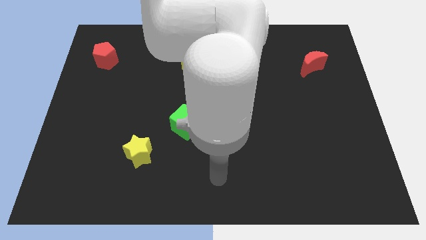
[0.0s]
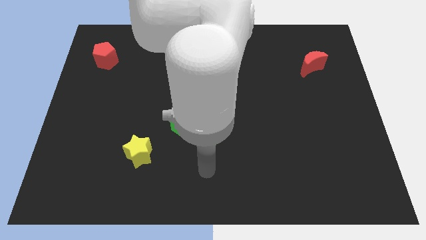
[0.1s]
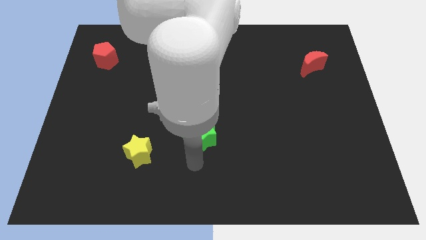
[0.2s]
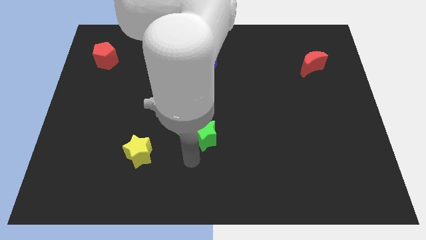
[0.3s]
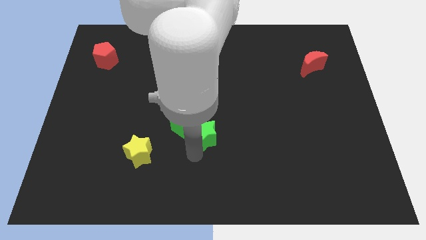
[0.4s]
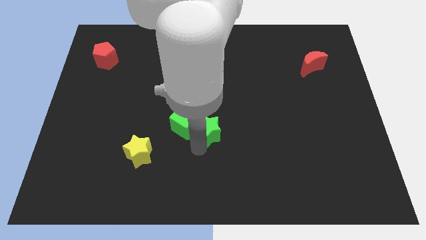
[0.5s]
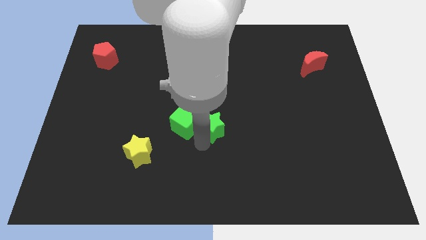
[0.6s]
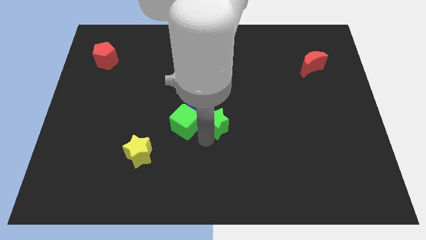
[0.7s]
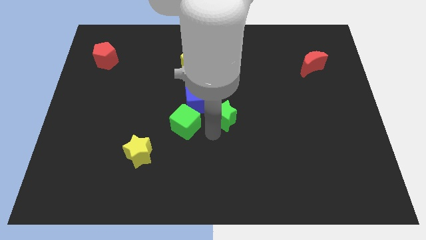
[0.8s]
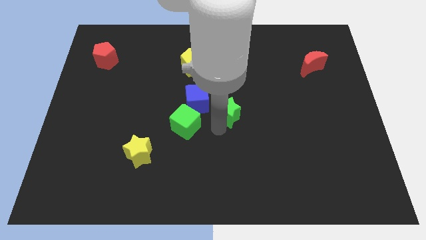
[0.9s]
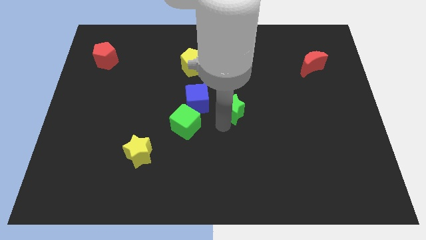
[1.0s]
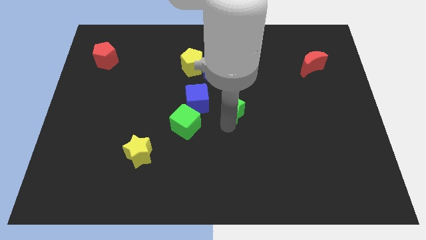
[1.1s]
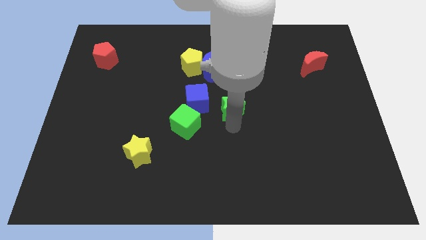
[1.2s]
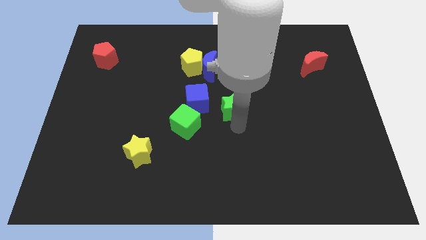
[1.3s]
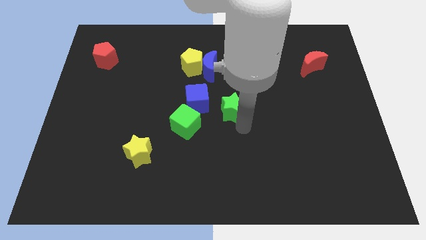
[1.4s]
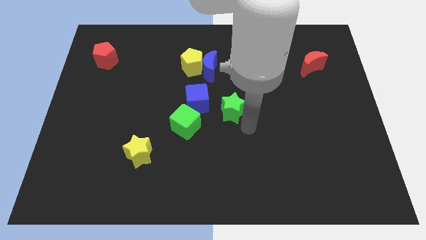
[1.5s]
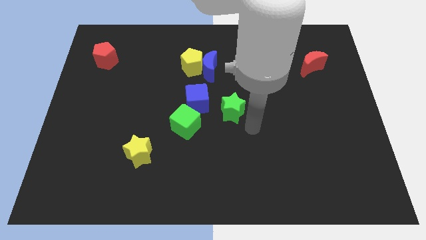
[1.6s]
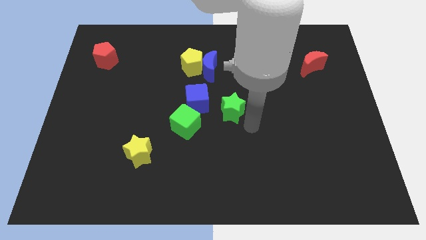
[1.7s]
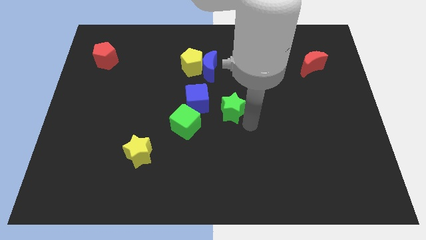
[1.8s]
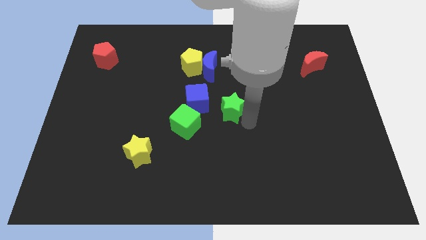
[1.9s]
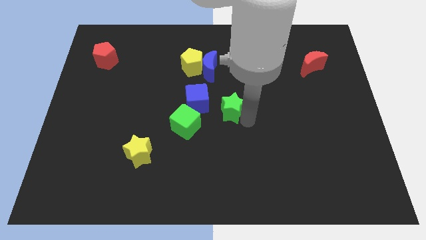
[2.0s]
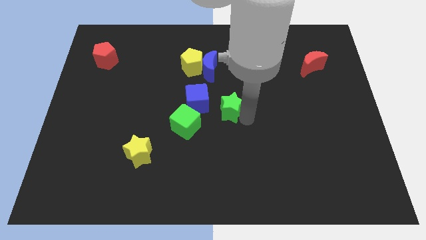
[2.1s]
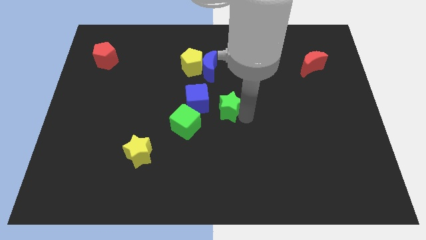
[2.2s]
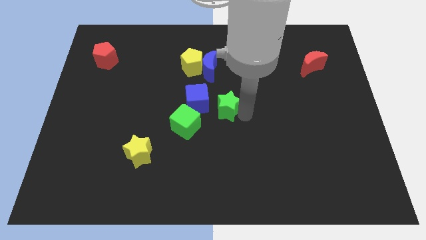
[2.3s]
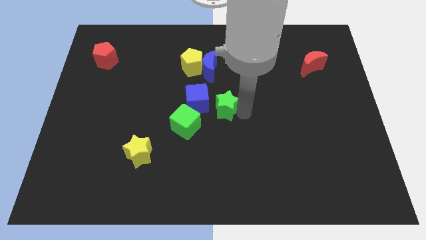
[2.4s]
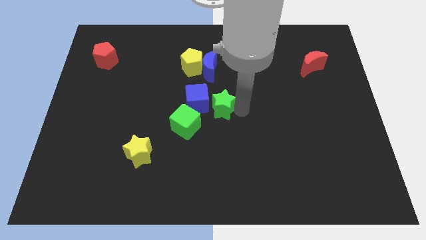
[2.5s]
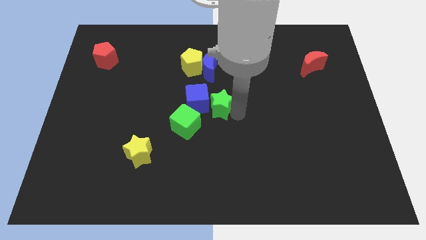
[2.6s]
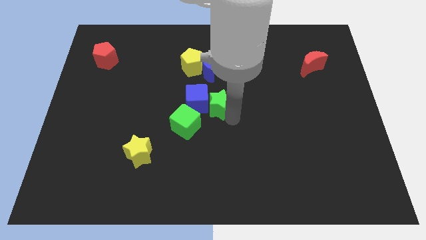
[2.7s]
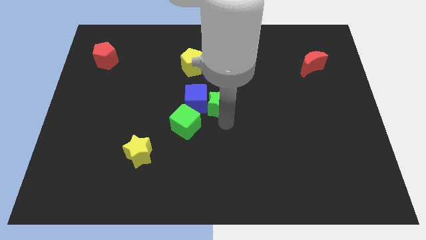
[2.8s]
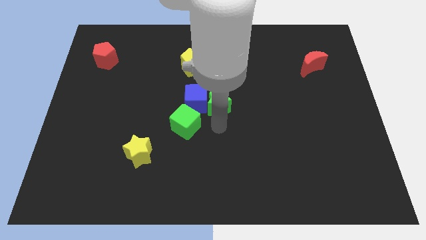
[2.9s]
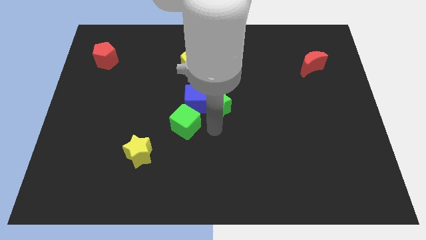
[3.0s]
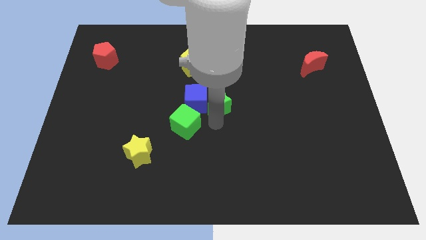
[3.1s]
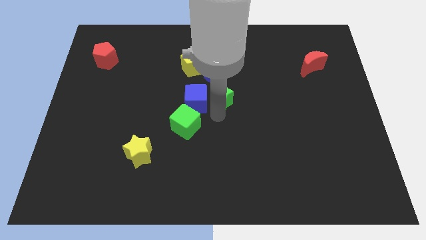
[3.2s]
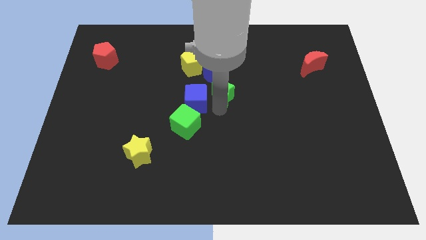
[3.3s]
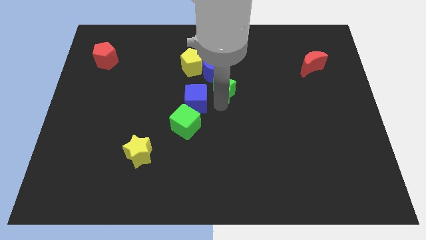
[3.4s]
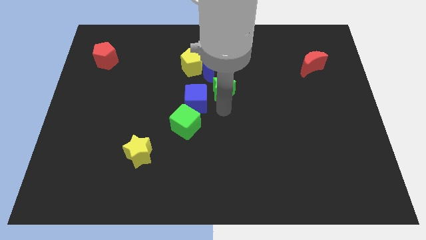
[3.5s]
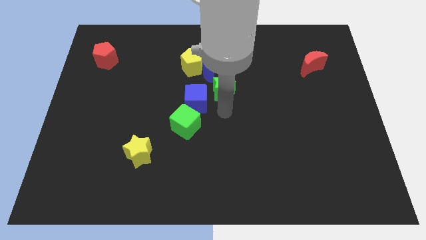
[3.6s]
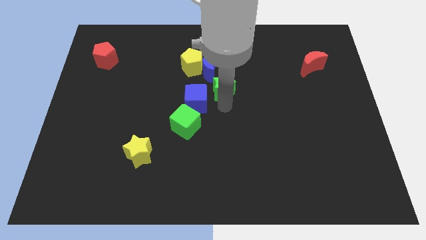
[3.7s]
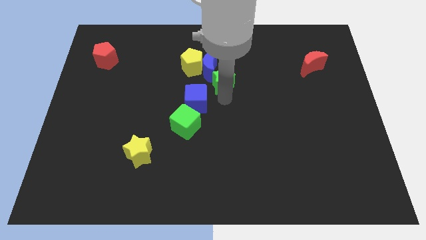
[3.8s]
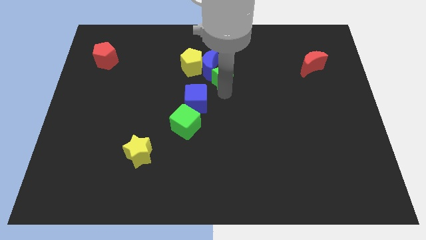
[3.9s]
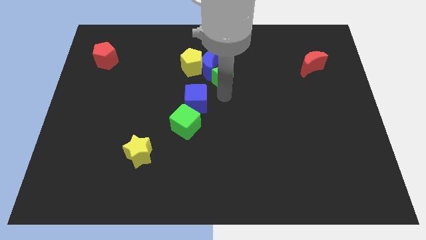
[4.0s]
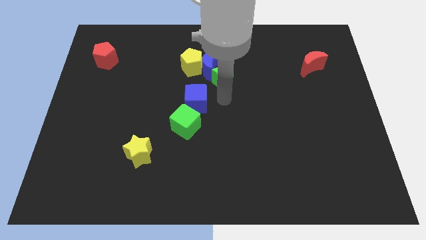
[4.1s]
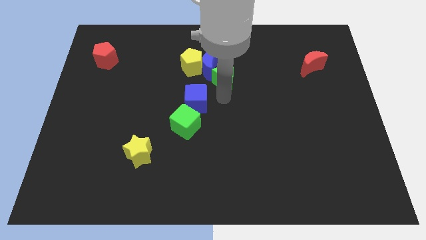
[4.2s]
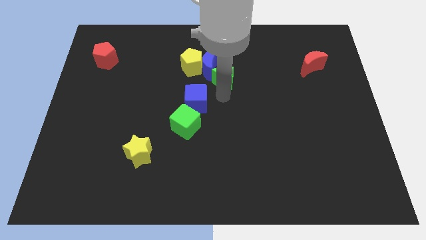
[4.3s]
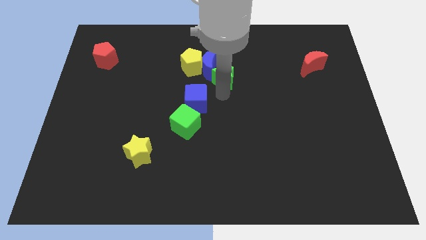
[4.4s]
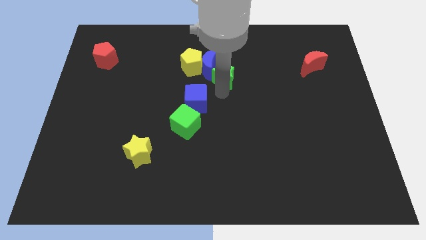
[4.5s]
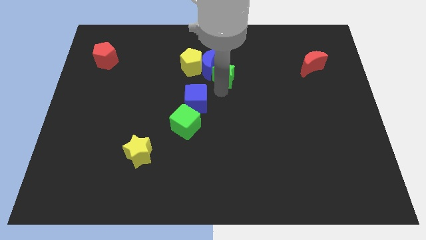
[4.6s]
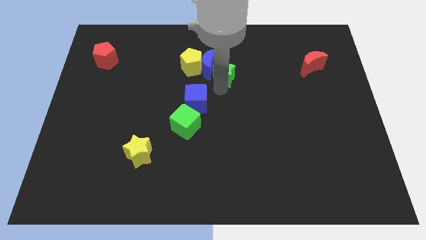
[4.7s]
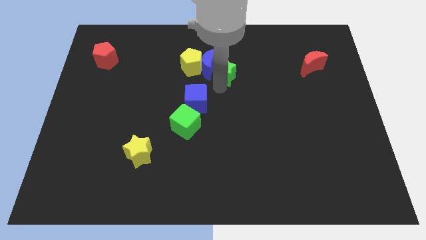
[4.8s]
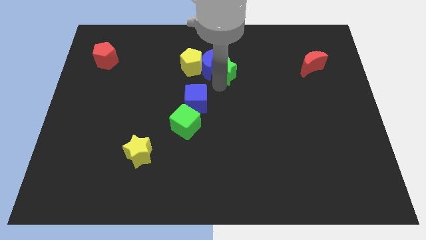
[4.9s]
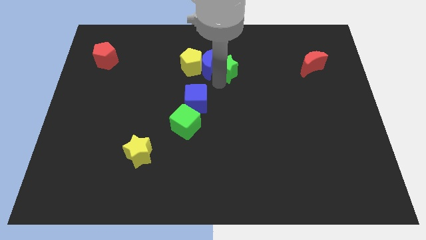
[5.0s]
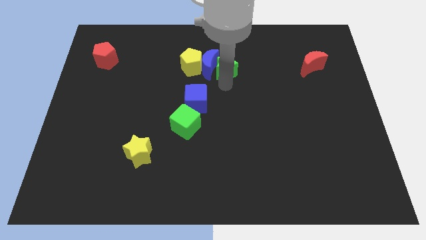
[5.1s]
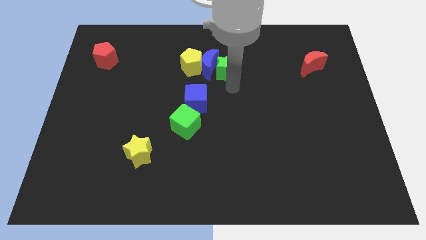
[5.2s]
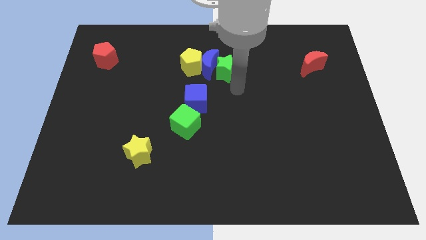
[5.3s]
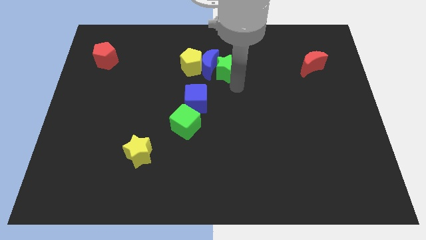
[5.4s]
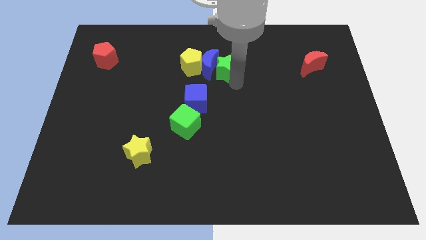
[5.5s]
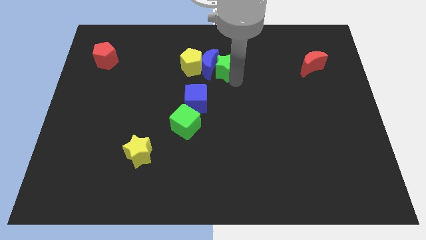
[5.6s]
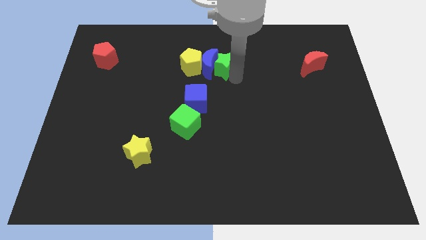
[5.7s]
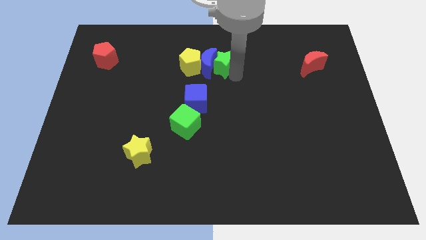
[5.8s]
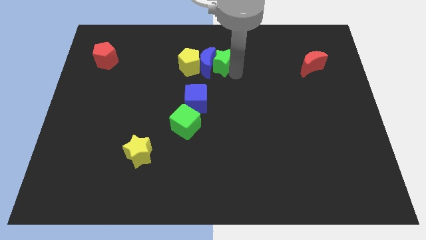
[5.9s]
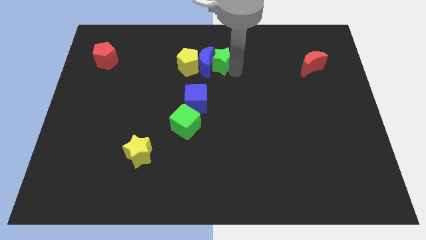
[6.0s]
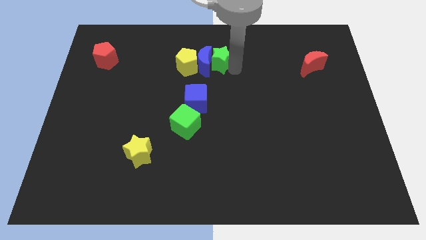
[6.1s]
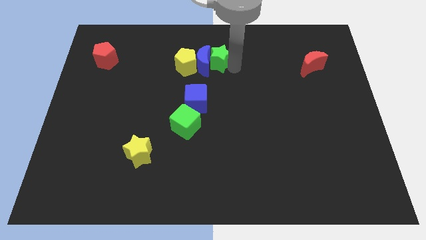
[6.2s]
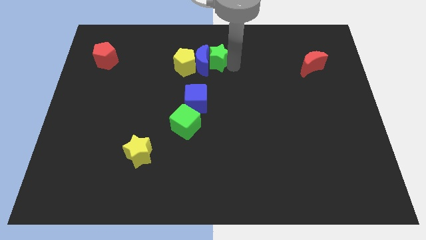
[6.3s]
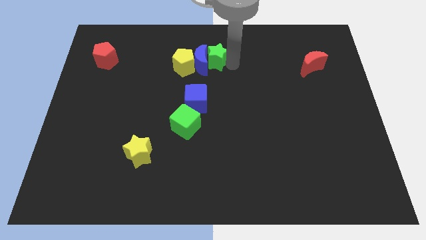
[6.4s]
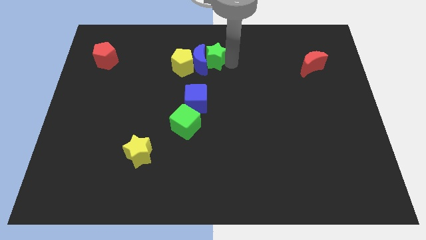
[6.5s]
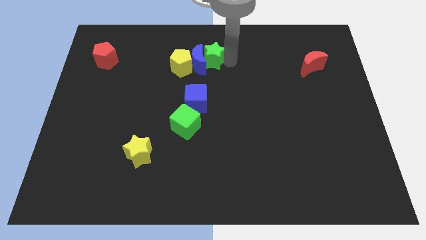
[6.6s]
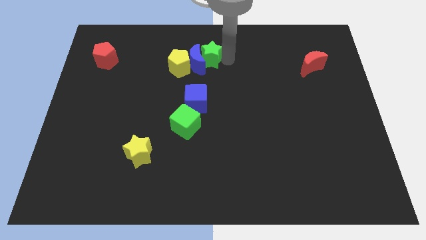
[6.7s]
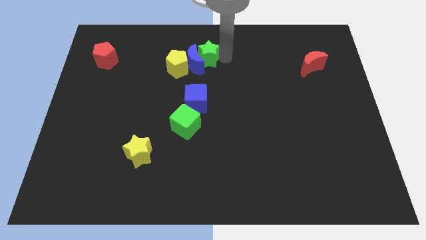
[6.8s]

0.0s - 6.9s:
move the green star to the top side
